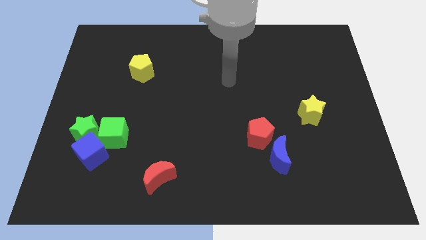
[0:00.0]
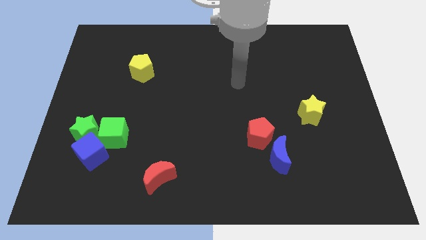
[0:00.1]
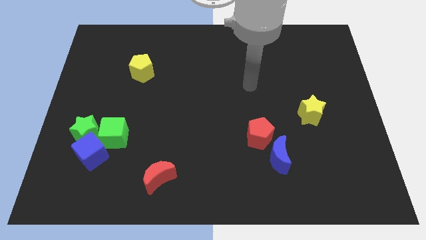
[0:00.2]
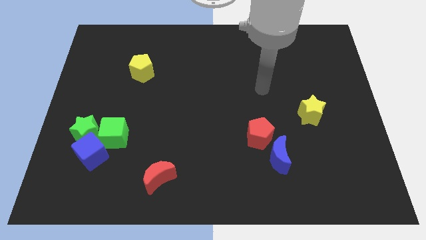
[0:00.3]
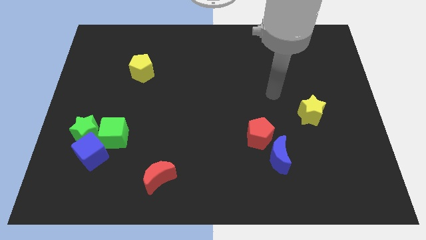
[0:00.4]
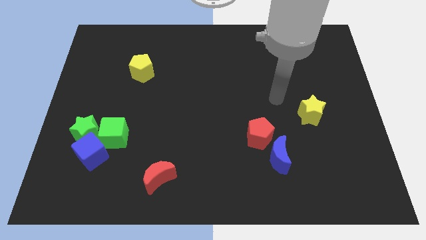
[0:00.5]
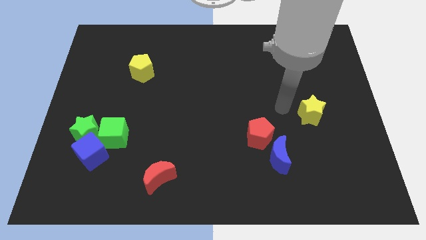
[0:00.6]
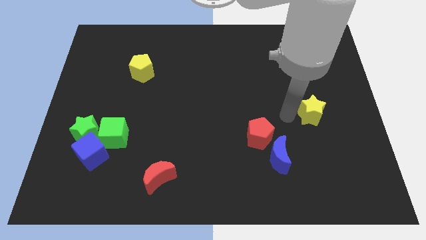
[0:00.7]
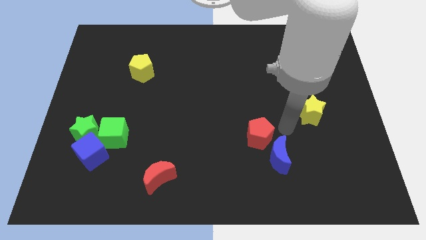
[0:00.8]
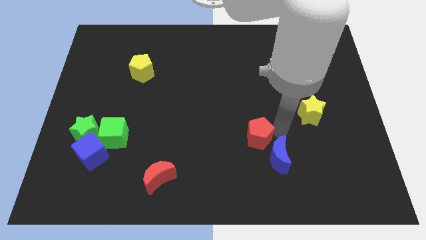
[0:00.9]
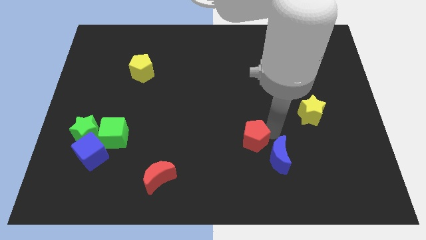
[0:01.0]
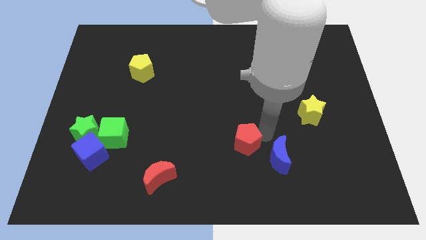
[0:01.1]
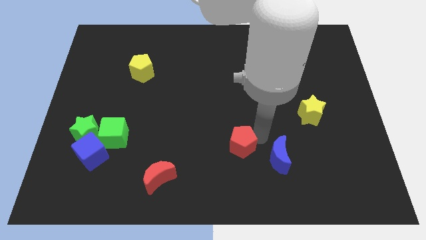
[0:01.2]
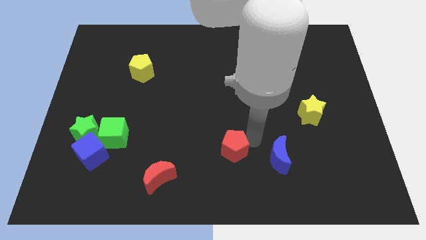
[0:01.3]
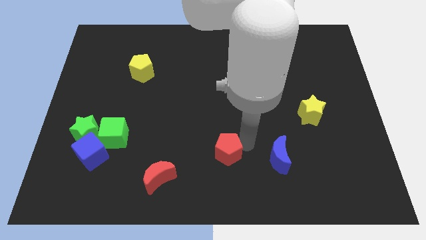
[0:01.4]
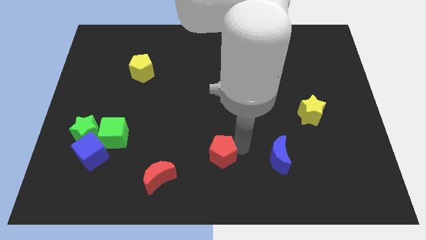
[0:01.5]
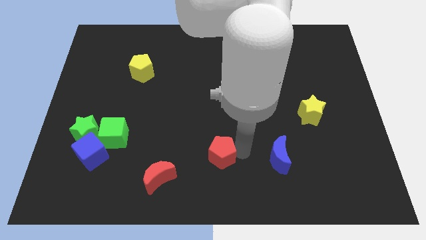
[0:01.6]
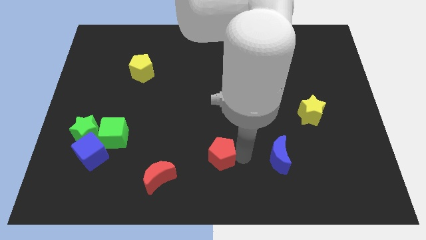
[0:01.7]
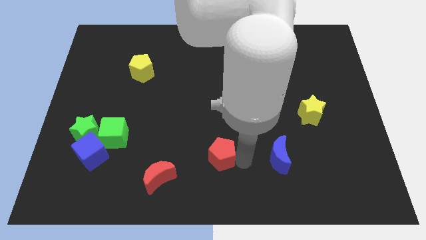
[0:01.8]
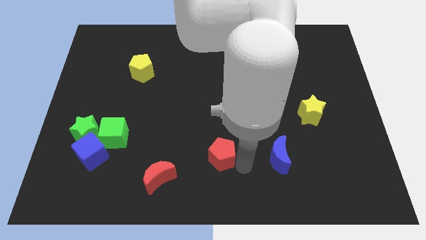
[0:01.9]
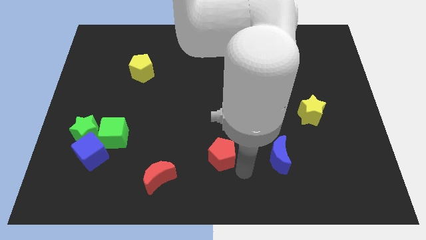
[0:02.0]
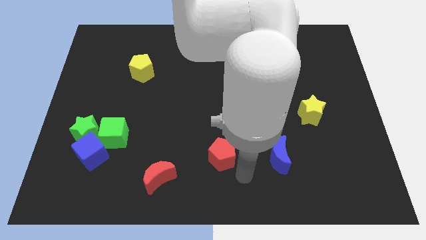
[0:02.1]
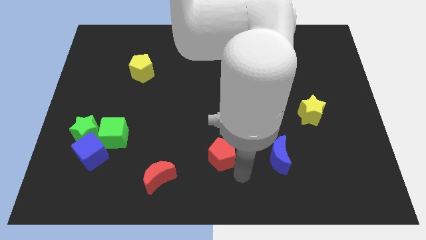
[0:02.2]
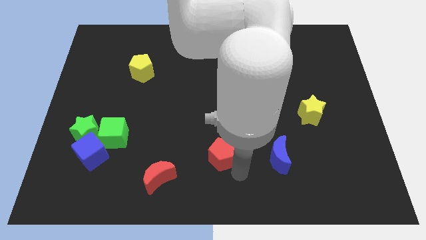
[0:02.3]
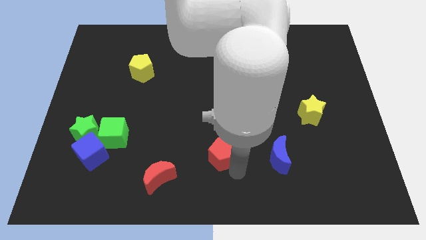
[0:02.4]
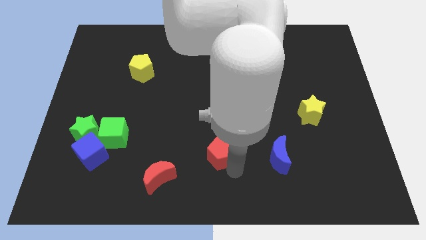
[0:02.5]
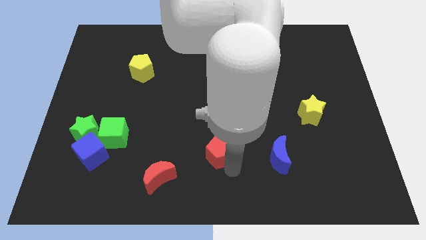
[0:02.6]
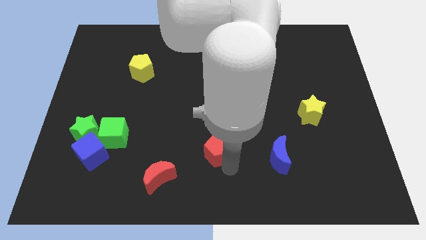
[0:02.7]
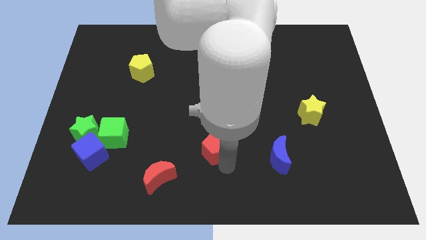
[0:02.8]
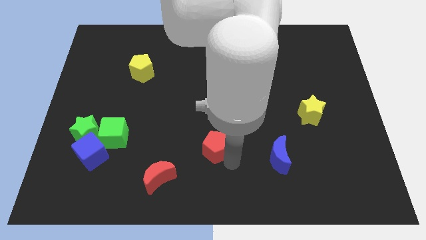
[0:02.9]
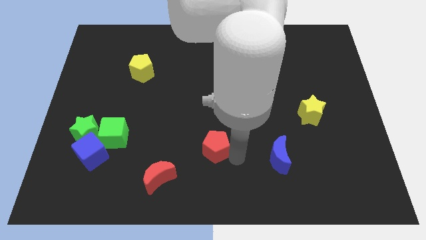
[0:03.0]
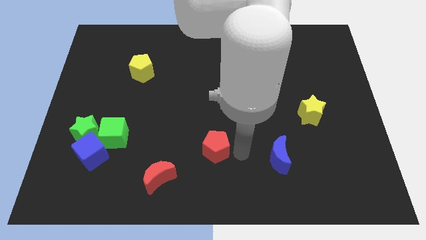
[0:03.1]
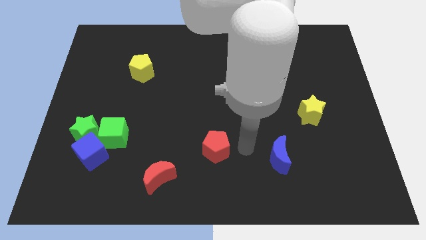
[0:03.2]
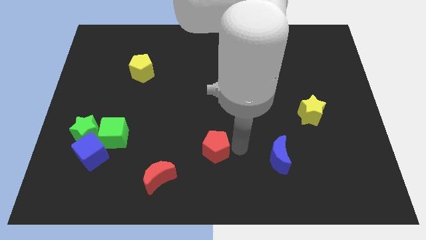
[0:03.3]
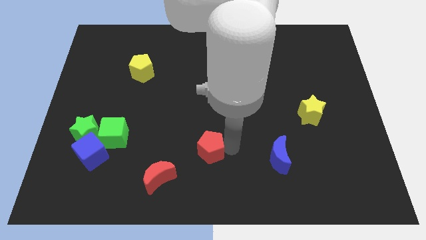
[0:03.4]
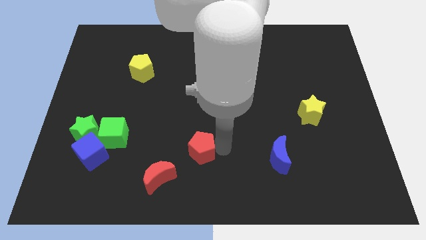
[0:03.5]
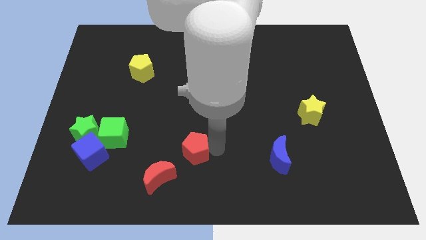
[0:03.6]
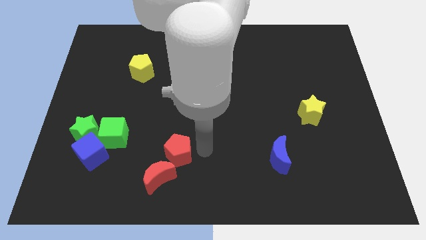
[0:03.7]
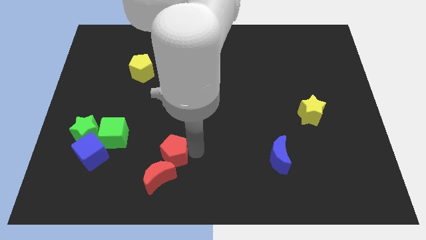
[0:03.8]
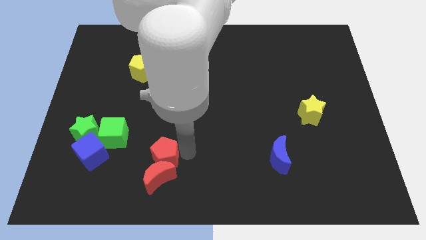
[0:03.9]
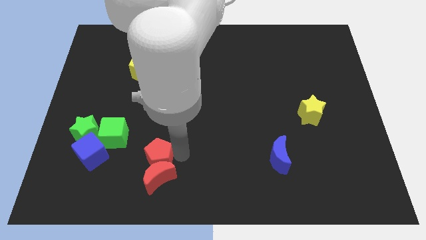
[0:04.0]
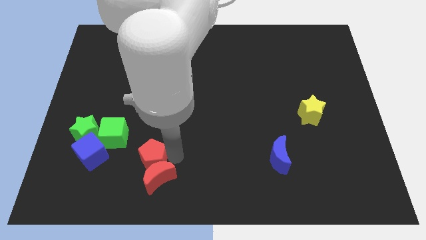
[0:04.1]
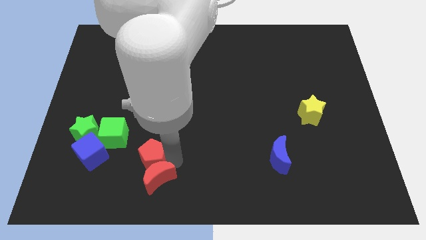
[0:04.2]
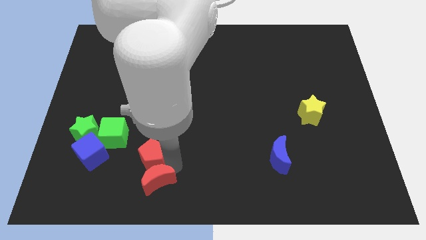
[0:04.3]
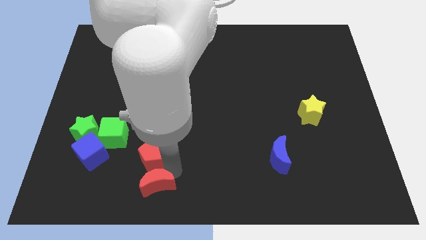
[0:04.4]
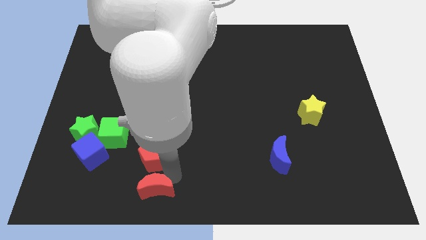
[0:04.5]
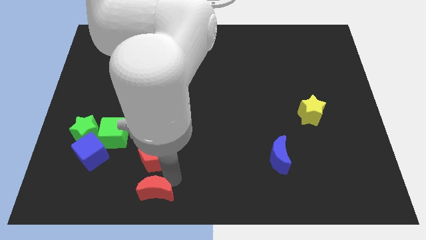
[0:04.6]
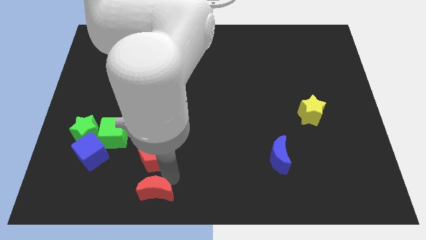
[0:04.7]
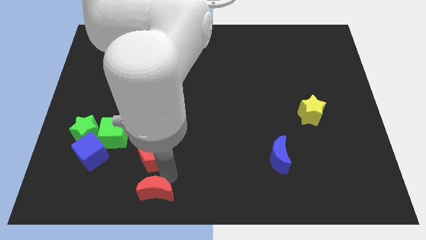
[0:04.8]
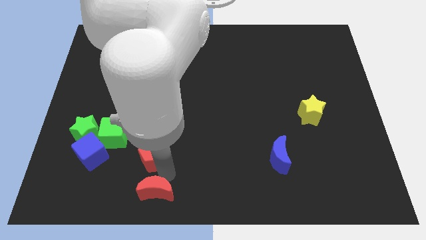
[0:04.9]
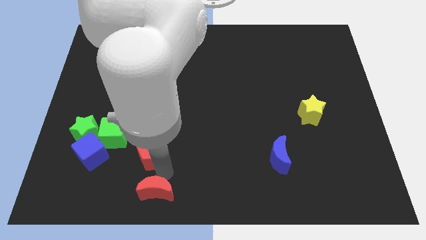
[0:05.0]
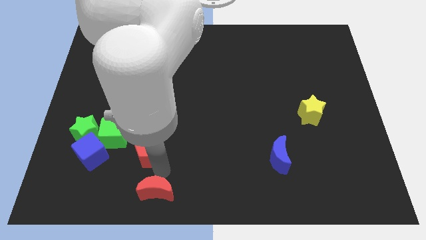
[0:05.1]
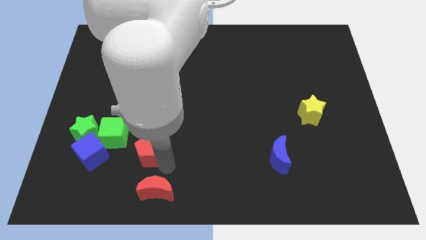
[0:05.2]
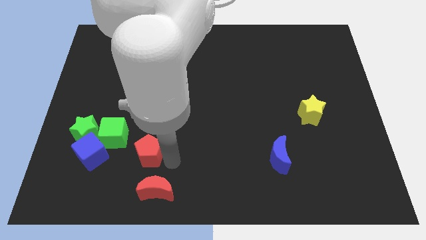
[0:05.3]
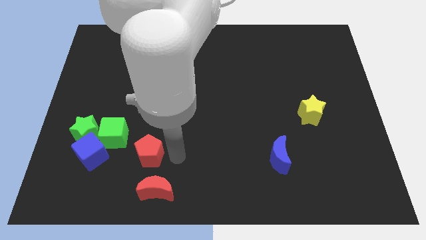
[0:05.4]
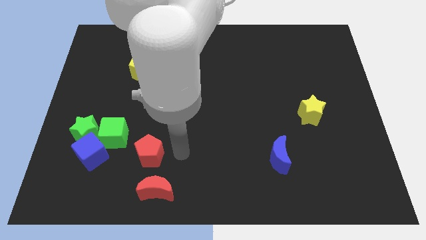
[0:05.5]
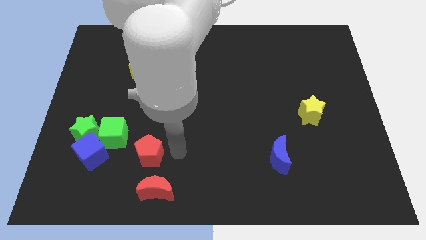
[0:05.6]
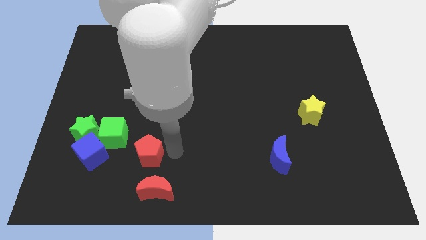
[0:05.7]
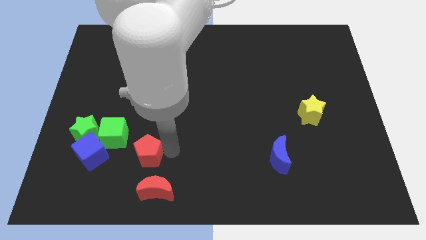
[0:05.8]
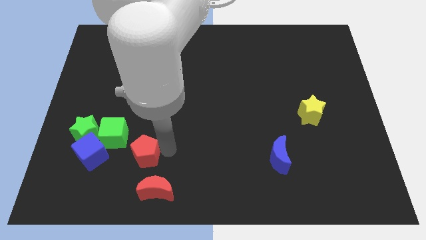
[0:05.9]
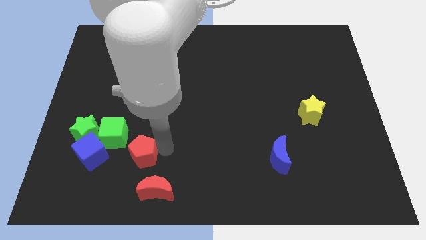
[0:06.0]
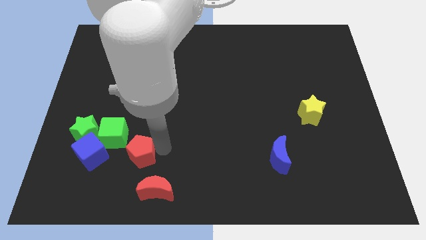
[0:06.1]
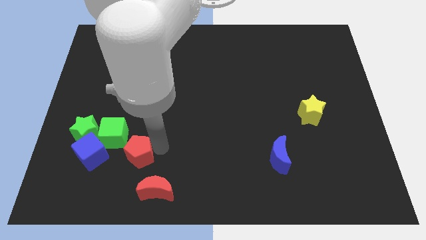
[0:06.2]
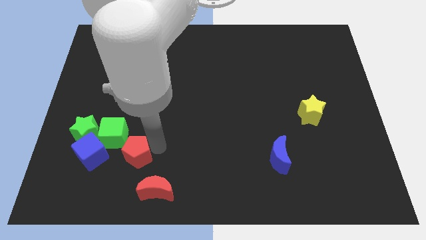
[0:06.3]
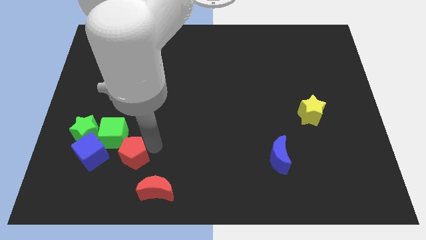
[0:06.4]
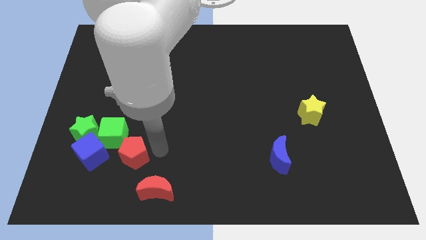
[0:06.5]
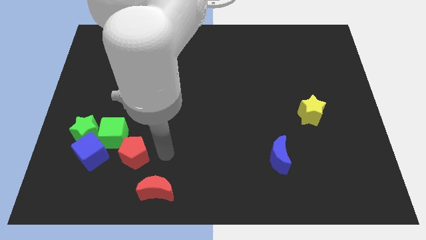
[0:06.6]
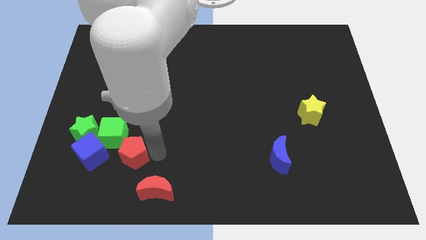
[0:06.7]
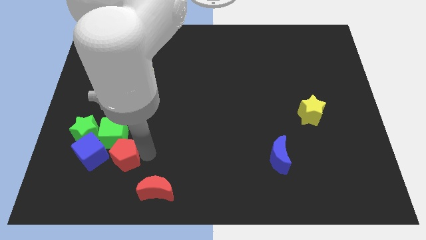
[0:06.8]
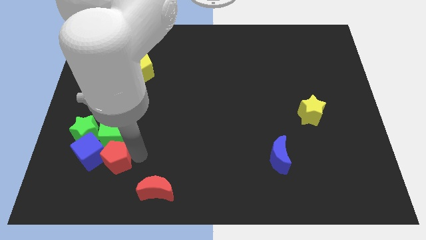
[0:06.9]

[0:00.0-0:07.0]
put the red pentagon to the blue cube
